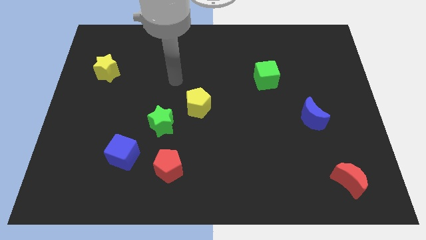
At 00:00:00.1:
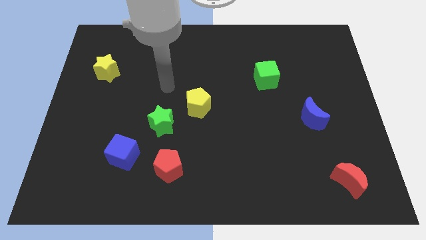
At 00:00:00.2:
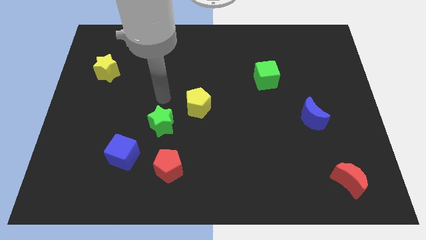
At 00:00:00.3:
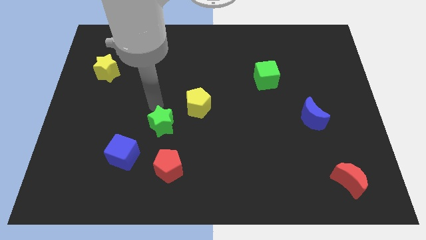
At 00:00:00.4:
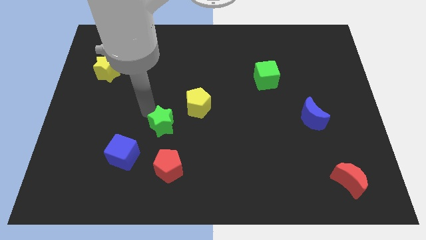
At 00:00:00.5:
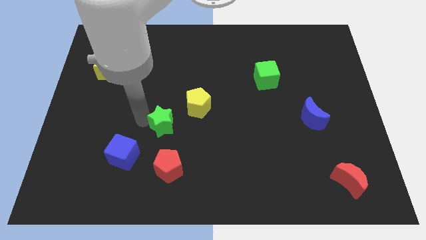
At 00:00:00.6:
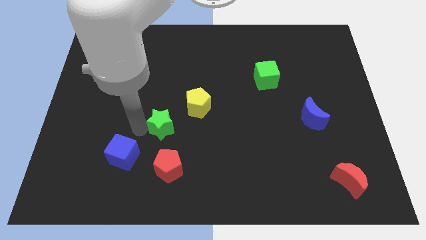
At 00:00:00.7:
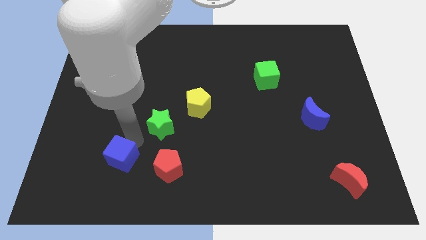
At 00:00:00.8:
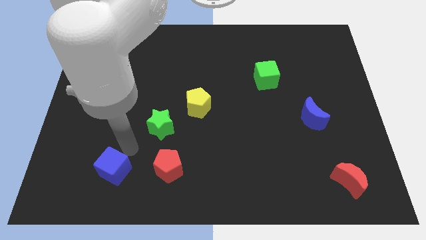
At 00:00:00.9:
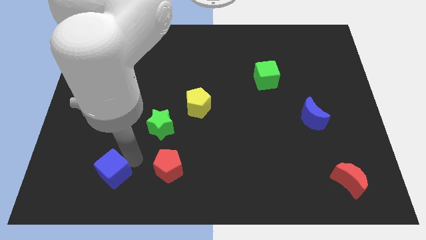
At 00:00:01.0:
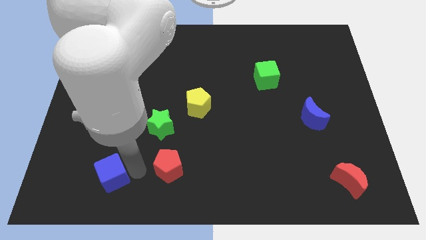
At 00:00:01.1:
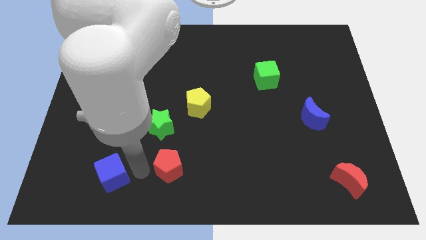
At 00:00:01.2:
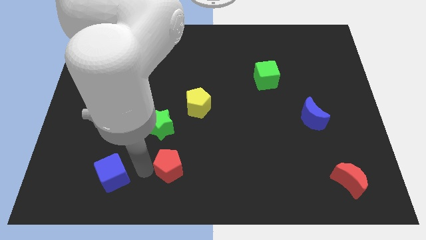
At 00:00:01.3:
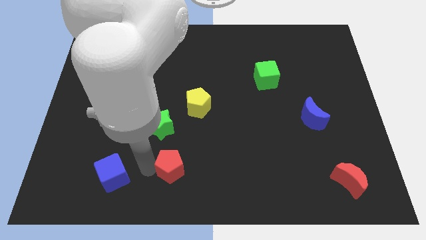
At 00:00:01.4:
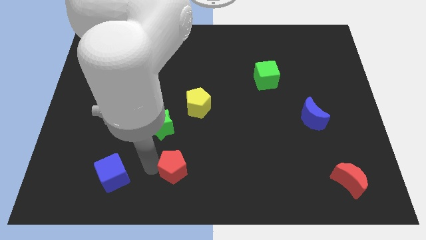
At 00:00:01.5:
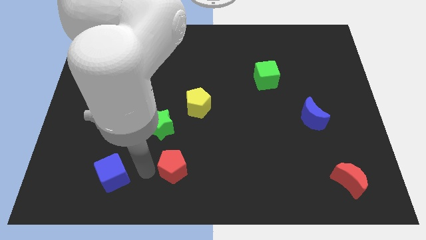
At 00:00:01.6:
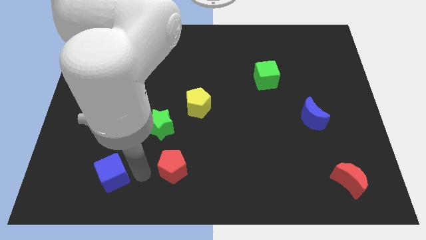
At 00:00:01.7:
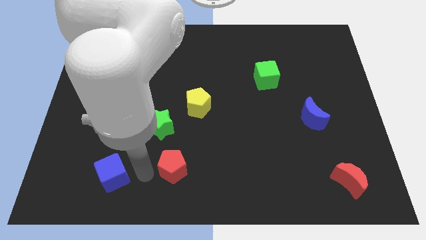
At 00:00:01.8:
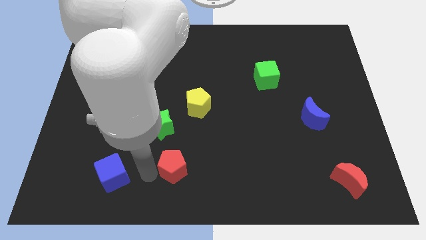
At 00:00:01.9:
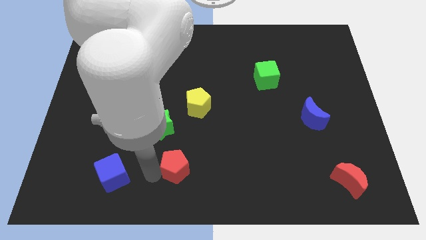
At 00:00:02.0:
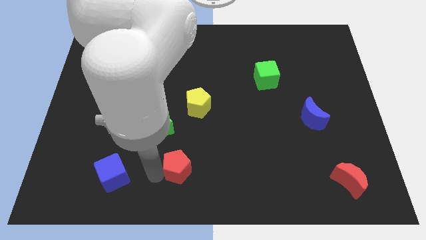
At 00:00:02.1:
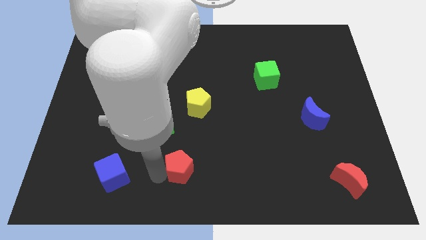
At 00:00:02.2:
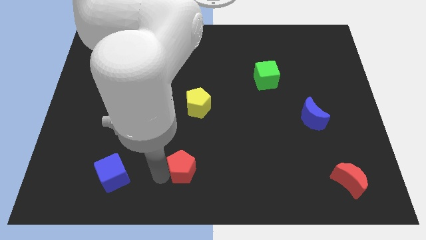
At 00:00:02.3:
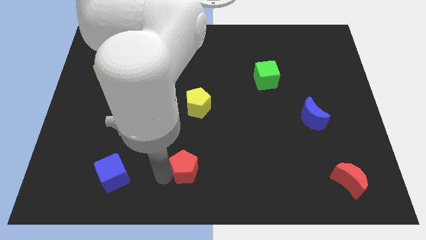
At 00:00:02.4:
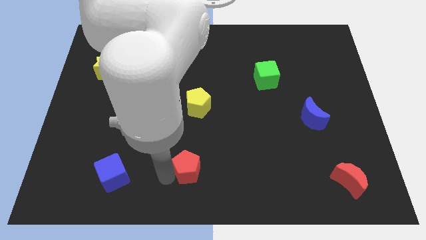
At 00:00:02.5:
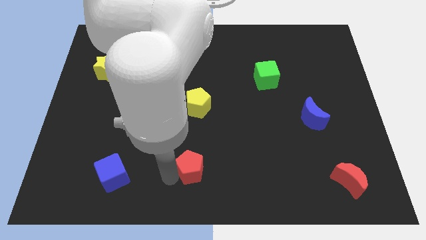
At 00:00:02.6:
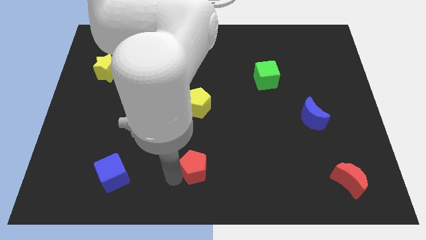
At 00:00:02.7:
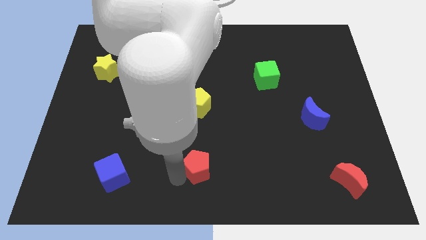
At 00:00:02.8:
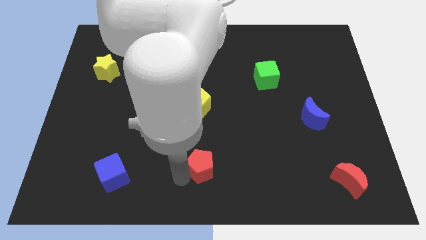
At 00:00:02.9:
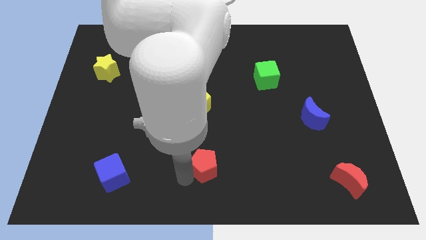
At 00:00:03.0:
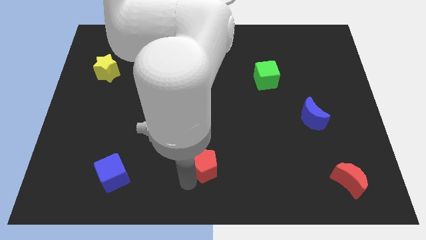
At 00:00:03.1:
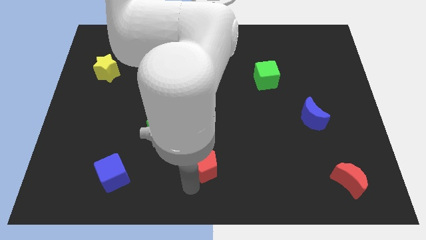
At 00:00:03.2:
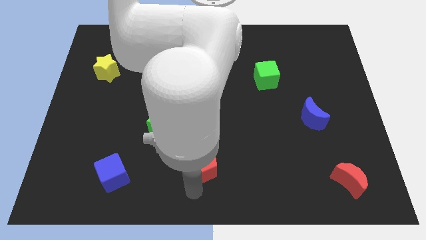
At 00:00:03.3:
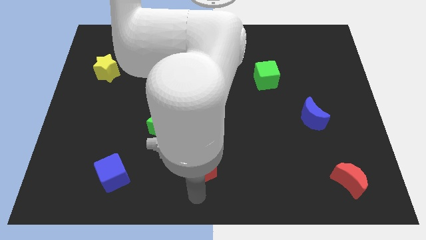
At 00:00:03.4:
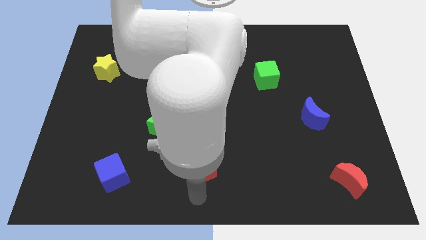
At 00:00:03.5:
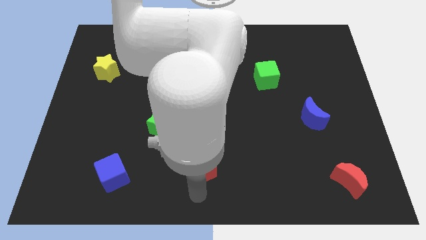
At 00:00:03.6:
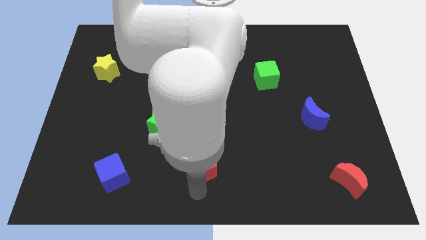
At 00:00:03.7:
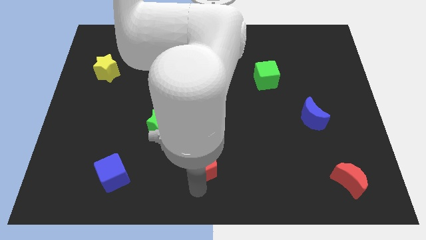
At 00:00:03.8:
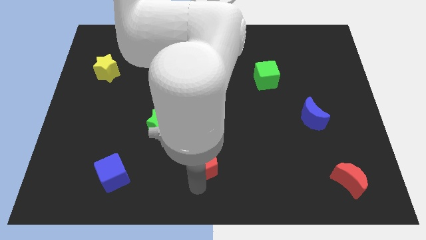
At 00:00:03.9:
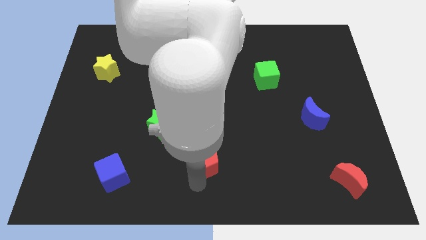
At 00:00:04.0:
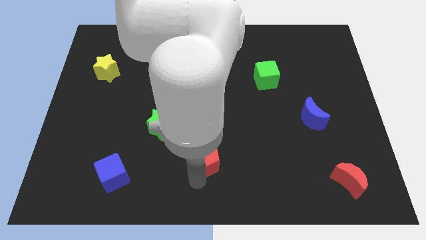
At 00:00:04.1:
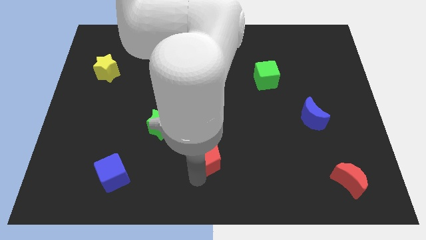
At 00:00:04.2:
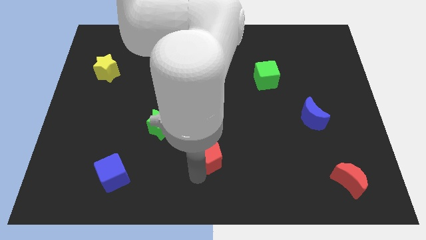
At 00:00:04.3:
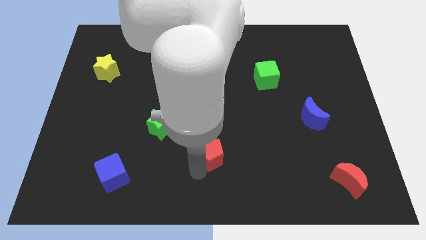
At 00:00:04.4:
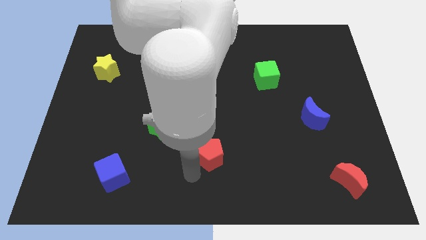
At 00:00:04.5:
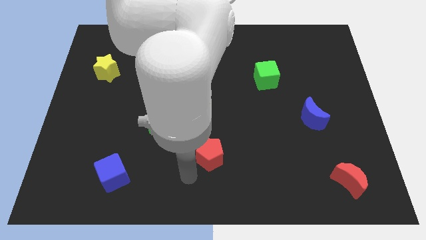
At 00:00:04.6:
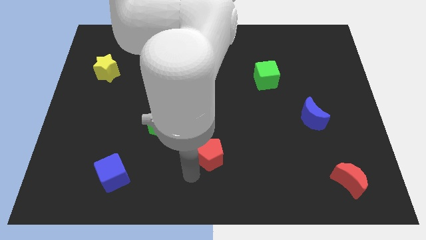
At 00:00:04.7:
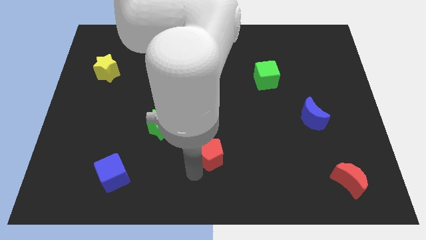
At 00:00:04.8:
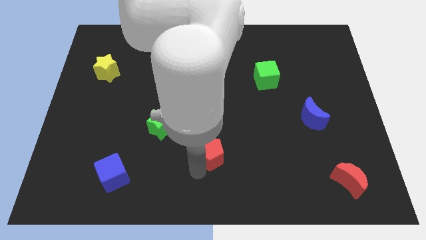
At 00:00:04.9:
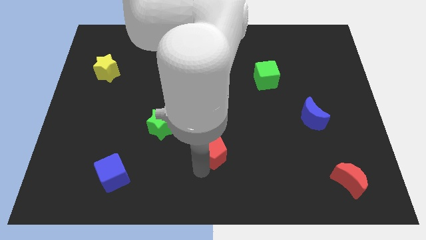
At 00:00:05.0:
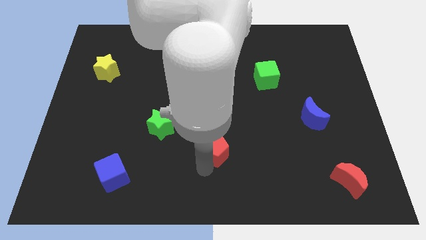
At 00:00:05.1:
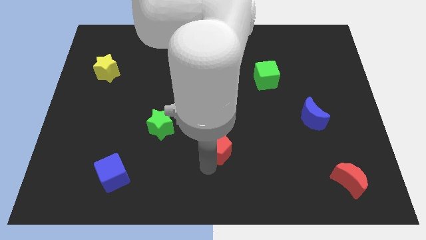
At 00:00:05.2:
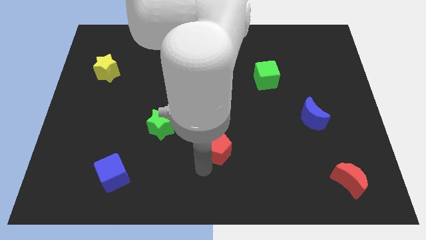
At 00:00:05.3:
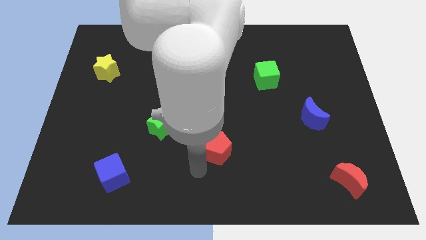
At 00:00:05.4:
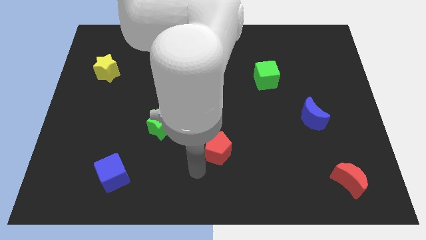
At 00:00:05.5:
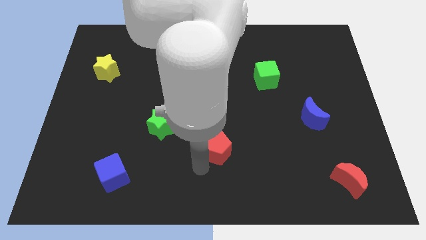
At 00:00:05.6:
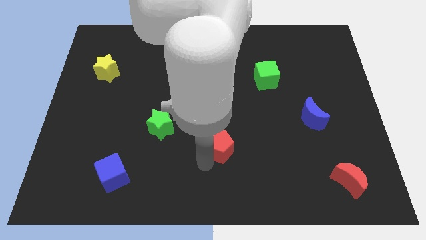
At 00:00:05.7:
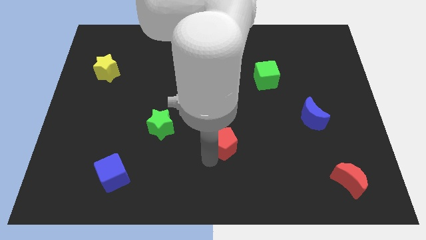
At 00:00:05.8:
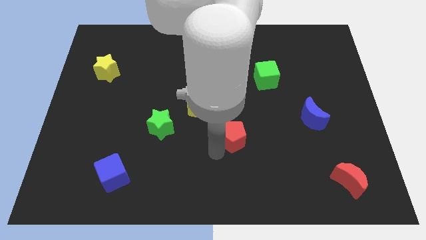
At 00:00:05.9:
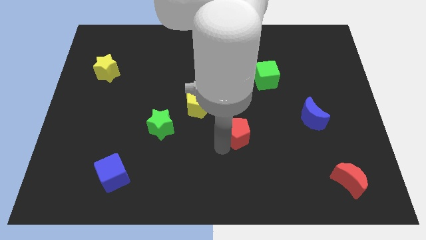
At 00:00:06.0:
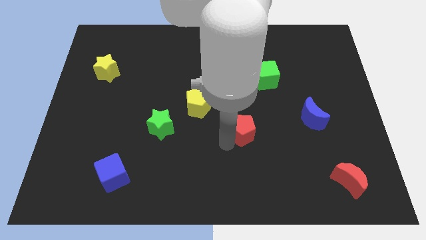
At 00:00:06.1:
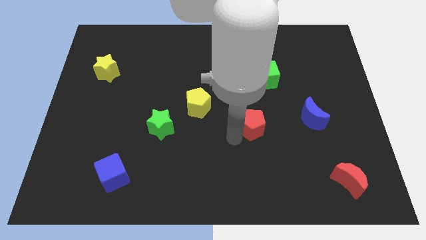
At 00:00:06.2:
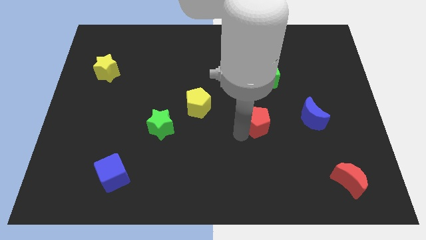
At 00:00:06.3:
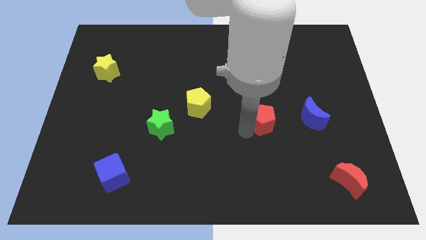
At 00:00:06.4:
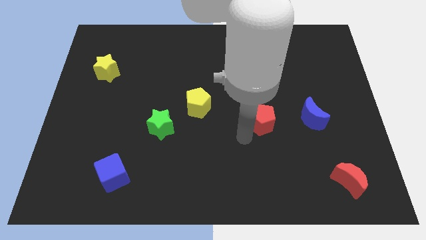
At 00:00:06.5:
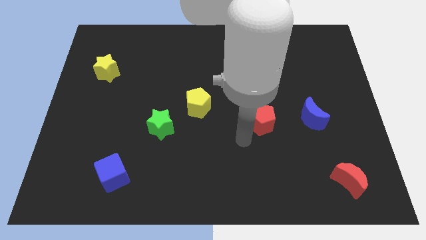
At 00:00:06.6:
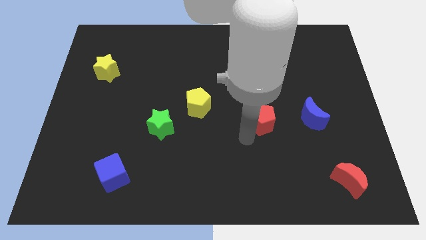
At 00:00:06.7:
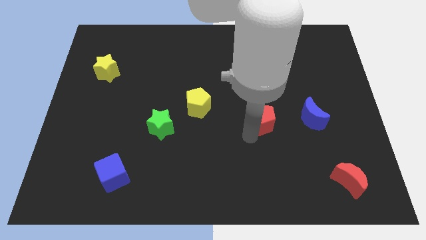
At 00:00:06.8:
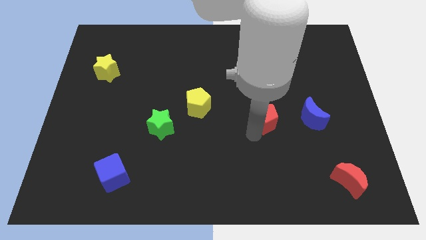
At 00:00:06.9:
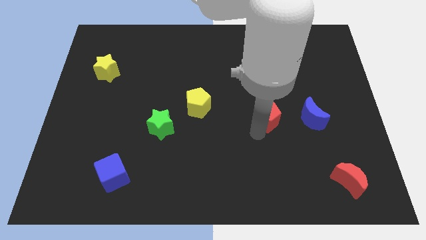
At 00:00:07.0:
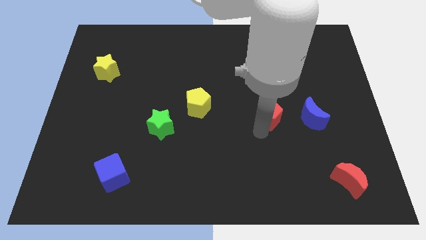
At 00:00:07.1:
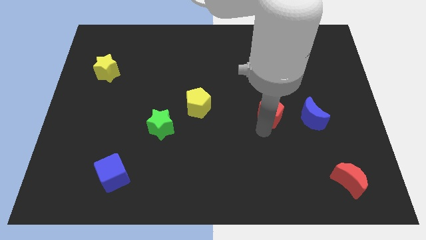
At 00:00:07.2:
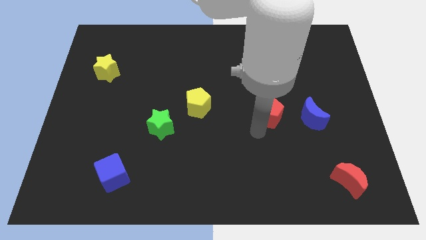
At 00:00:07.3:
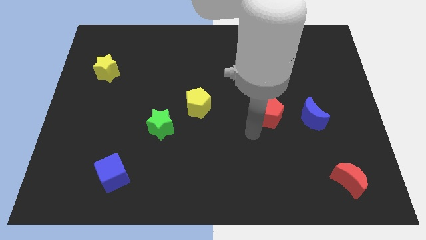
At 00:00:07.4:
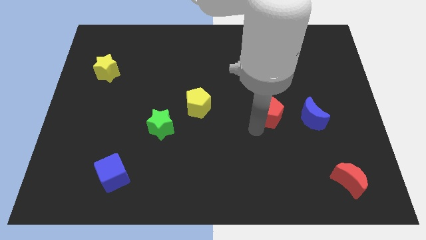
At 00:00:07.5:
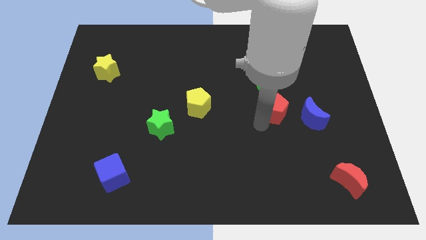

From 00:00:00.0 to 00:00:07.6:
push the red pentagon to the top left of the blue moon
